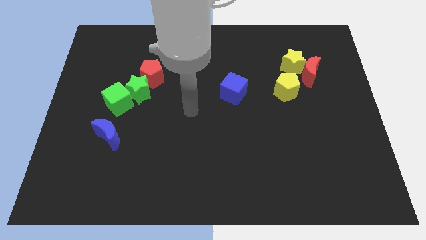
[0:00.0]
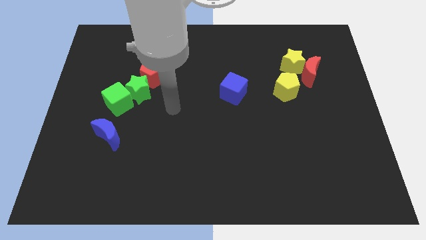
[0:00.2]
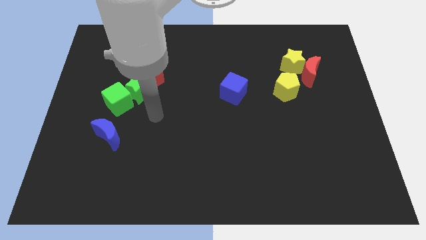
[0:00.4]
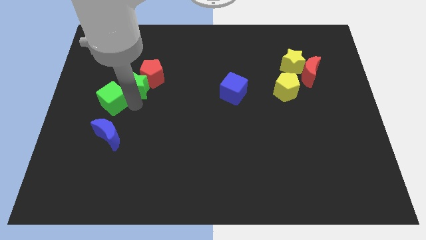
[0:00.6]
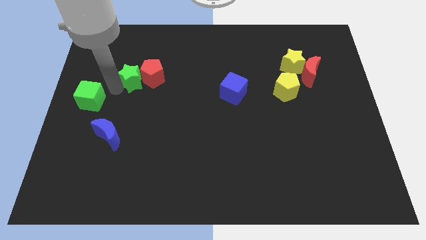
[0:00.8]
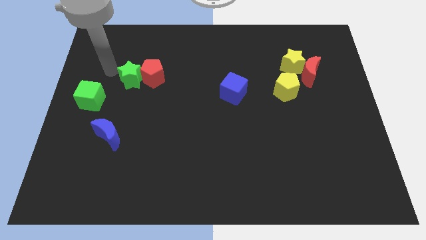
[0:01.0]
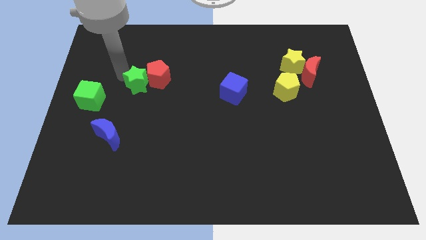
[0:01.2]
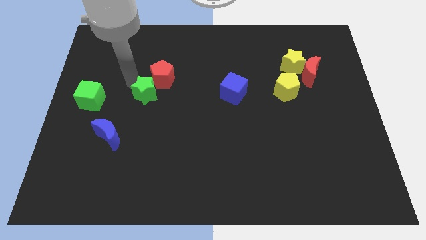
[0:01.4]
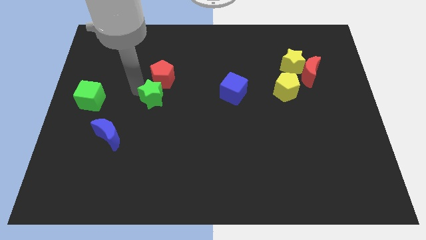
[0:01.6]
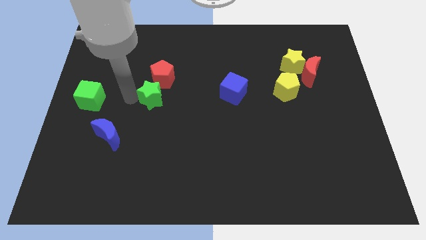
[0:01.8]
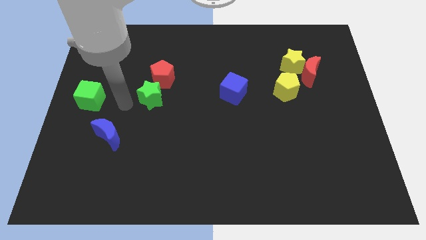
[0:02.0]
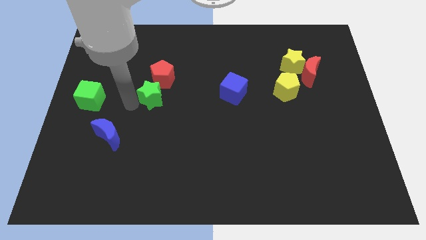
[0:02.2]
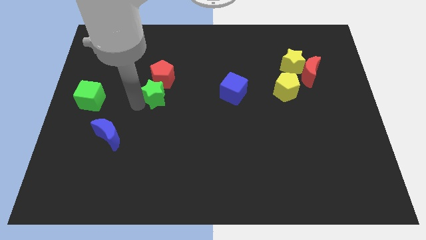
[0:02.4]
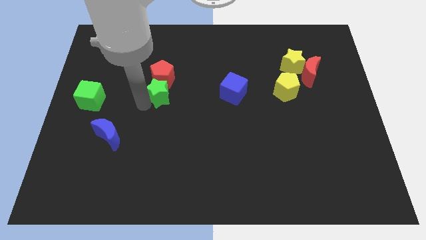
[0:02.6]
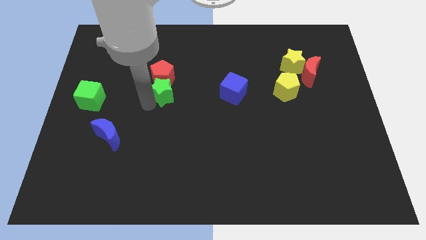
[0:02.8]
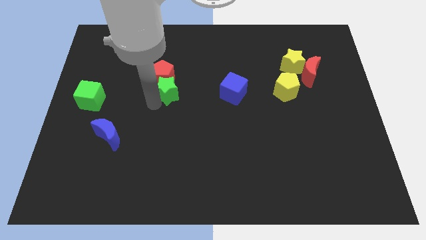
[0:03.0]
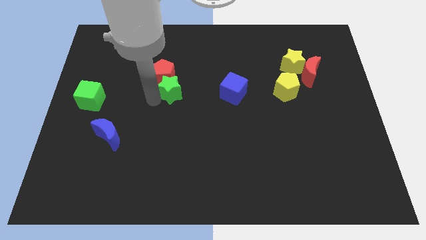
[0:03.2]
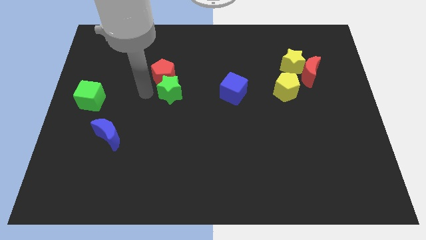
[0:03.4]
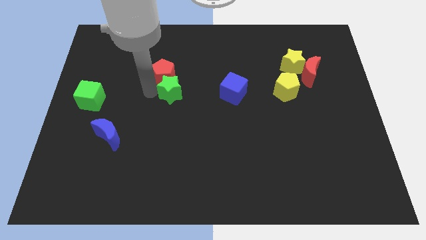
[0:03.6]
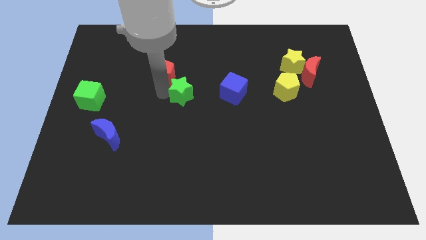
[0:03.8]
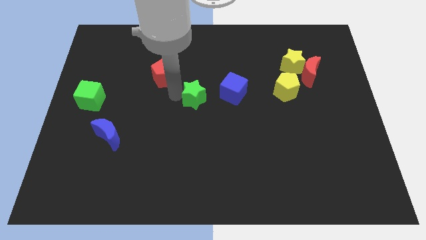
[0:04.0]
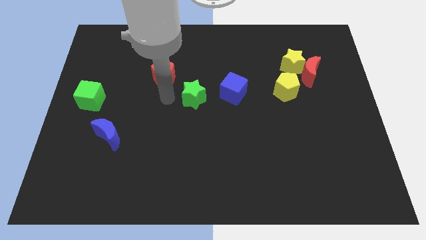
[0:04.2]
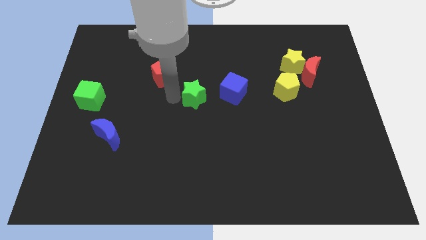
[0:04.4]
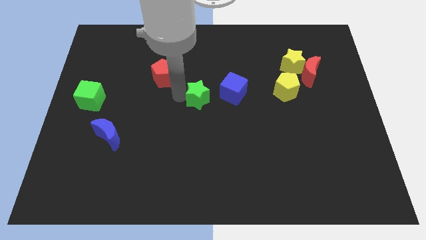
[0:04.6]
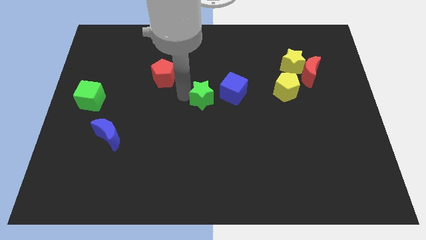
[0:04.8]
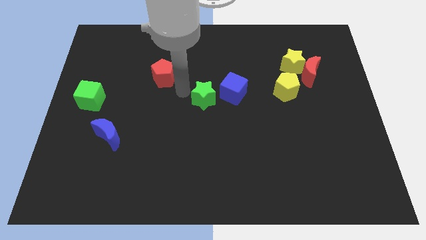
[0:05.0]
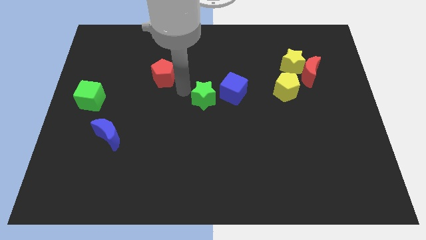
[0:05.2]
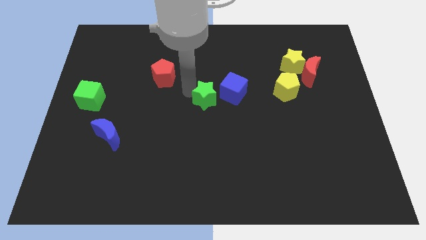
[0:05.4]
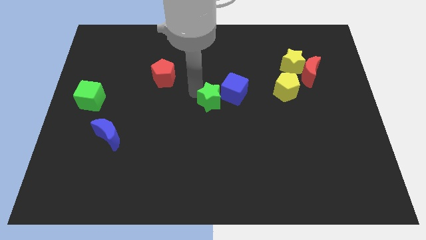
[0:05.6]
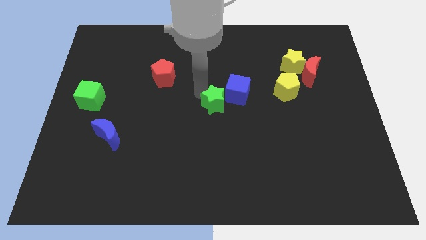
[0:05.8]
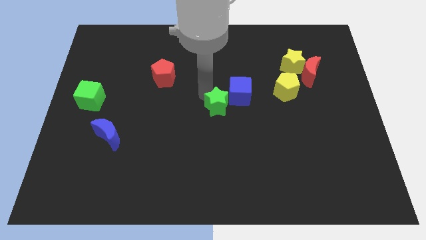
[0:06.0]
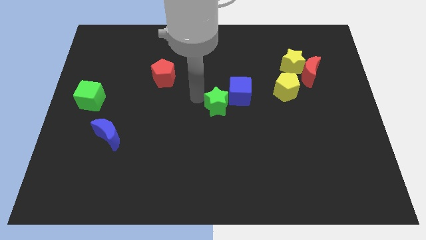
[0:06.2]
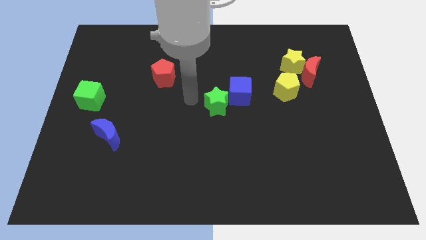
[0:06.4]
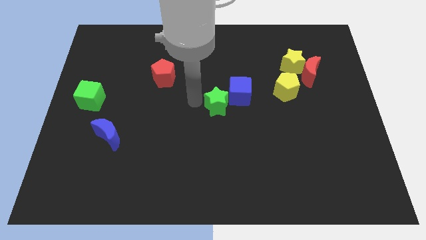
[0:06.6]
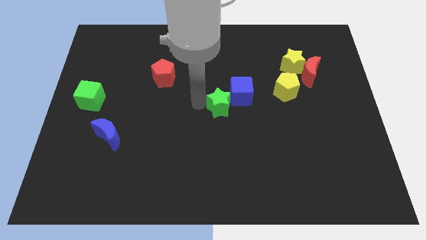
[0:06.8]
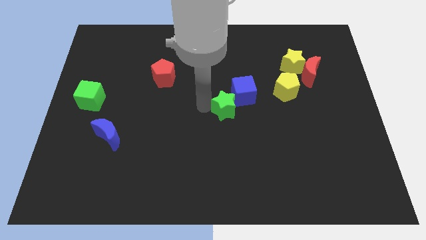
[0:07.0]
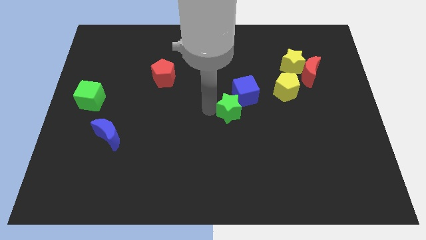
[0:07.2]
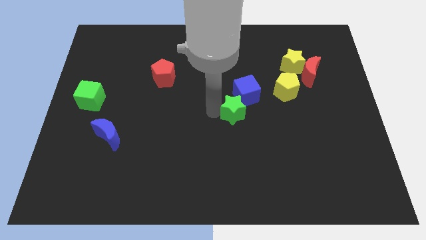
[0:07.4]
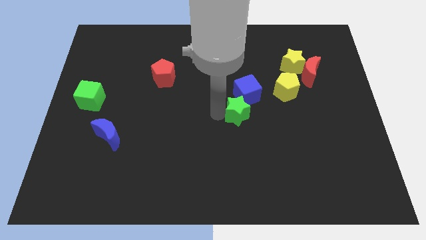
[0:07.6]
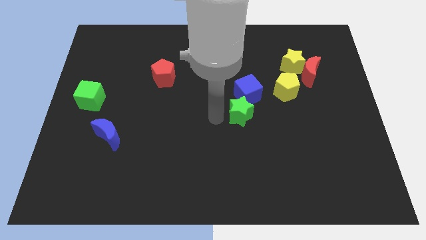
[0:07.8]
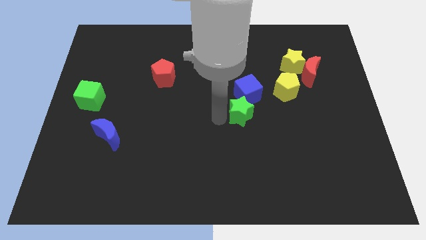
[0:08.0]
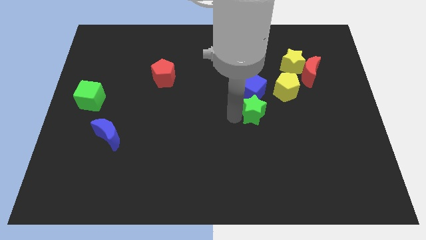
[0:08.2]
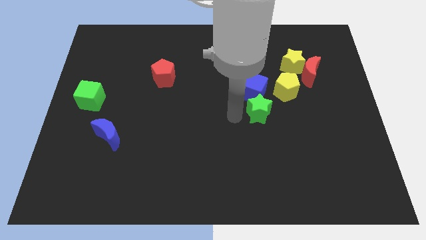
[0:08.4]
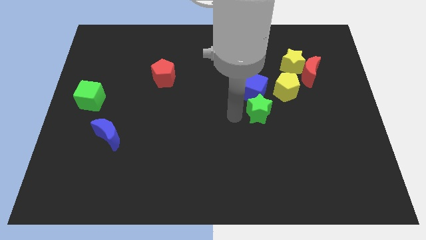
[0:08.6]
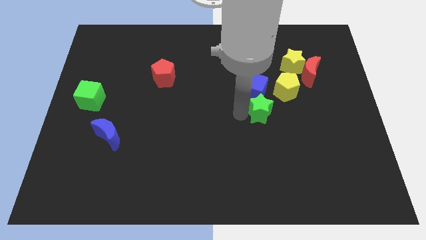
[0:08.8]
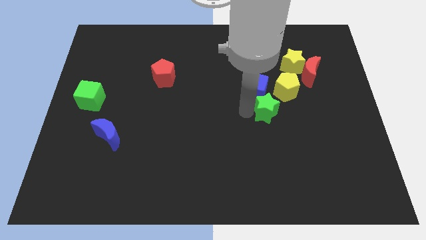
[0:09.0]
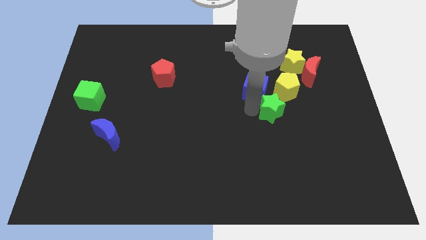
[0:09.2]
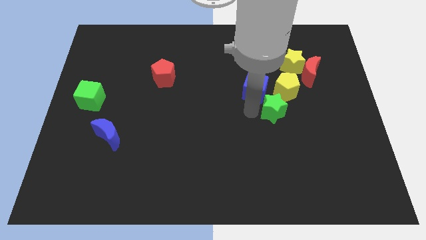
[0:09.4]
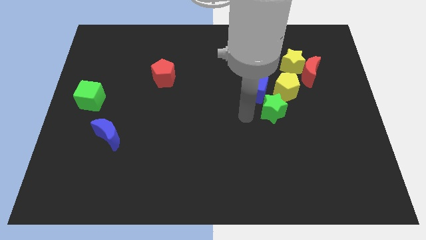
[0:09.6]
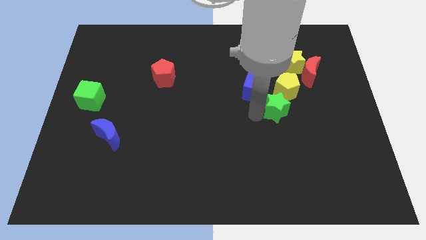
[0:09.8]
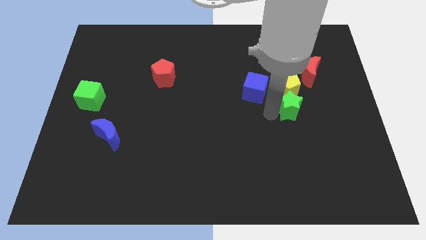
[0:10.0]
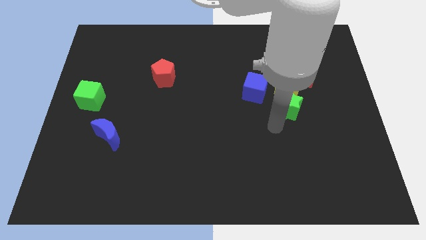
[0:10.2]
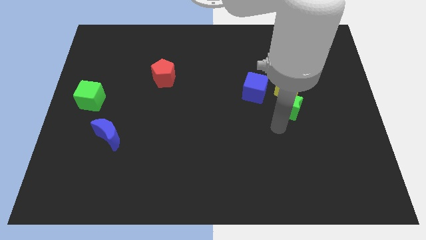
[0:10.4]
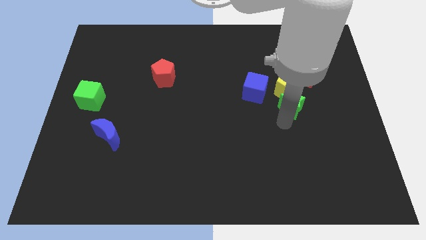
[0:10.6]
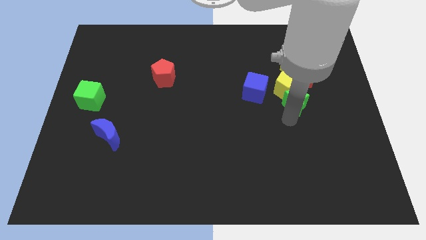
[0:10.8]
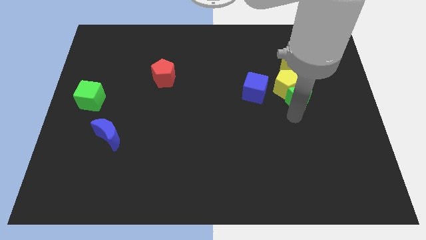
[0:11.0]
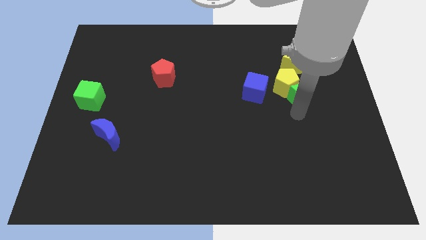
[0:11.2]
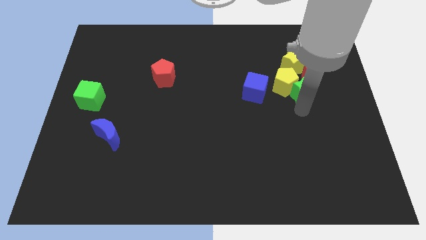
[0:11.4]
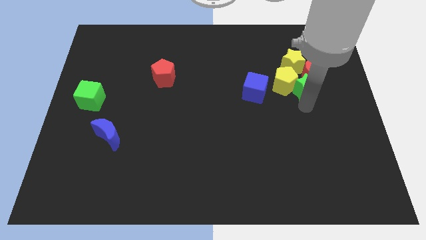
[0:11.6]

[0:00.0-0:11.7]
move the green star to the red moon

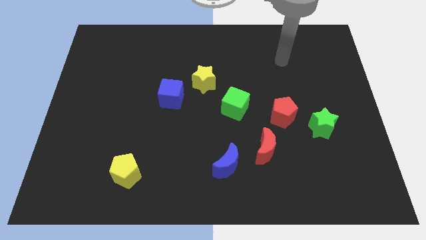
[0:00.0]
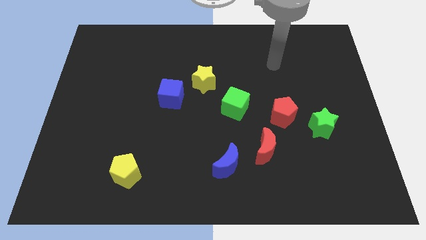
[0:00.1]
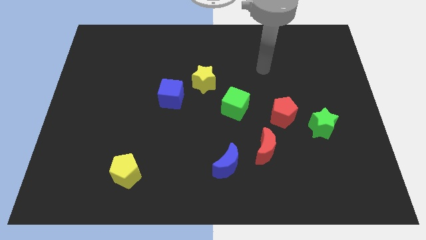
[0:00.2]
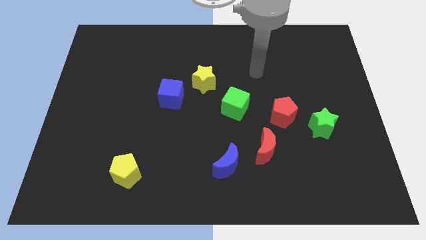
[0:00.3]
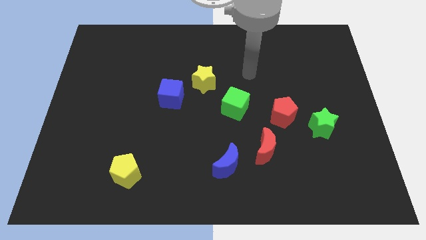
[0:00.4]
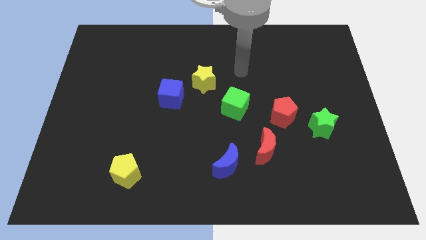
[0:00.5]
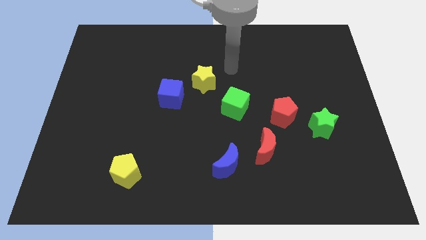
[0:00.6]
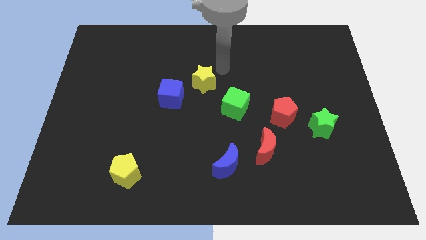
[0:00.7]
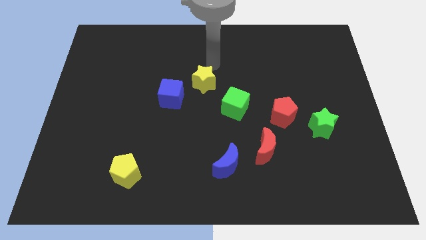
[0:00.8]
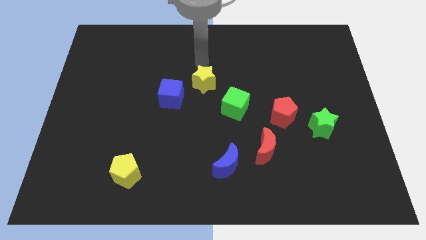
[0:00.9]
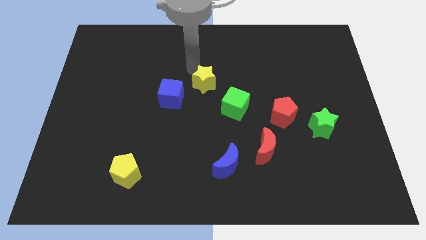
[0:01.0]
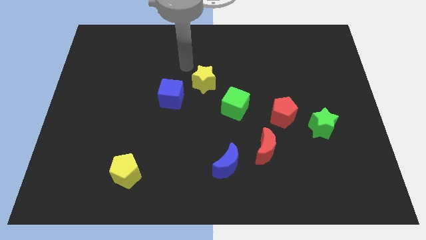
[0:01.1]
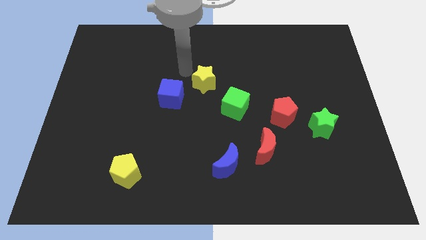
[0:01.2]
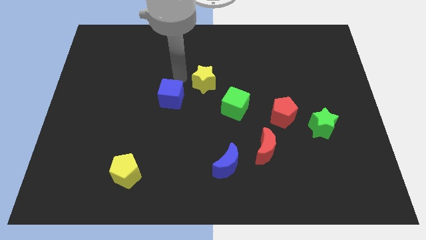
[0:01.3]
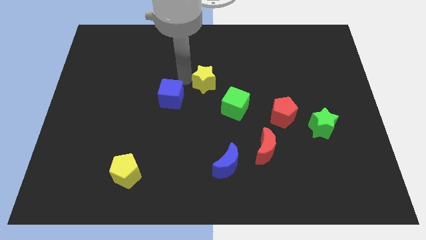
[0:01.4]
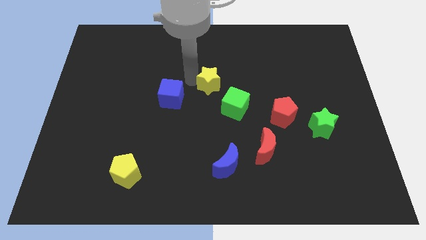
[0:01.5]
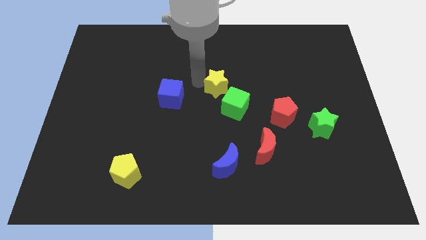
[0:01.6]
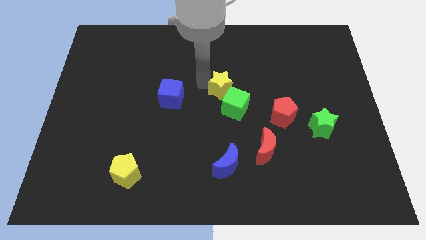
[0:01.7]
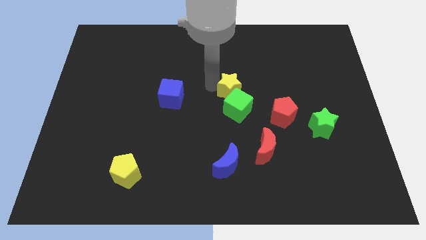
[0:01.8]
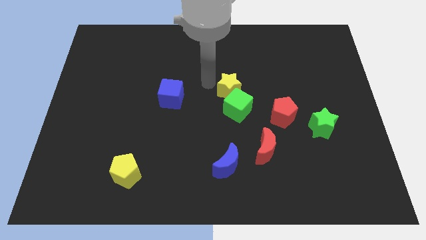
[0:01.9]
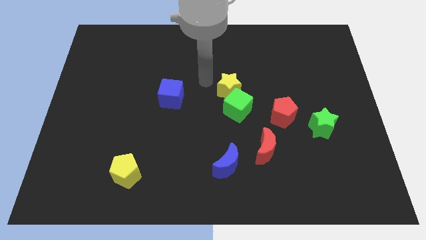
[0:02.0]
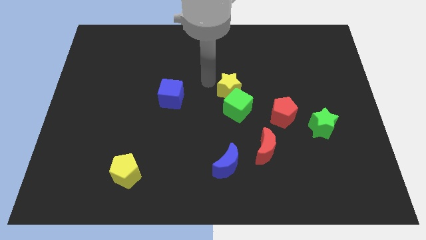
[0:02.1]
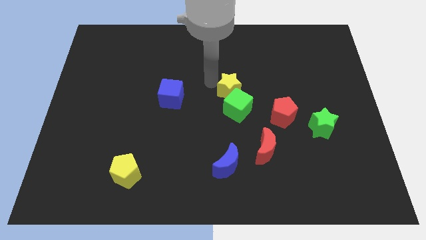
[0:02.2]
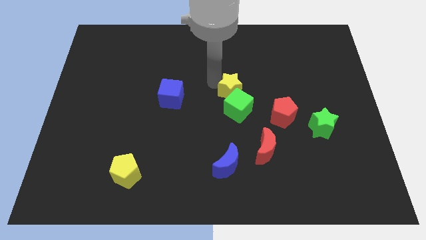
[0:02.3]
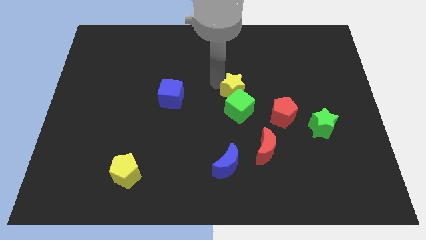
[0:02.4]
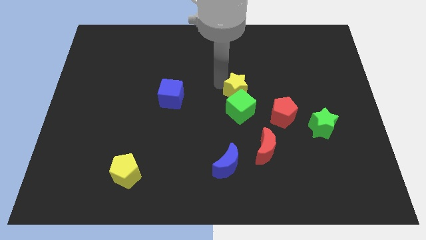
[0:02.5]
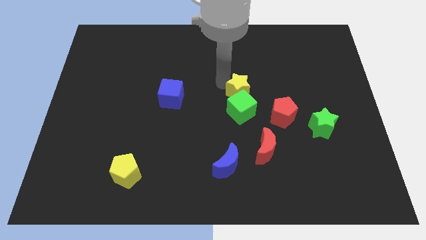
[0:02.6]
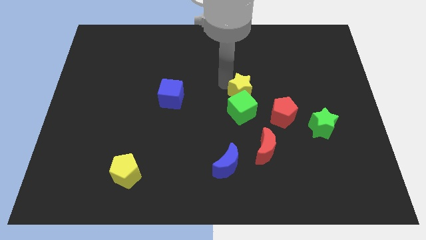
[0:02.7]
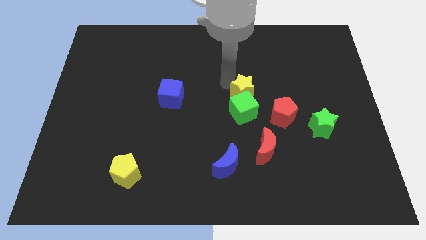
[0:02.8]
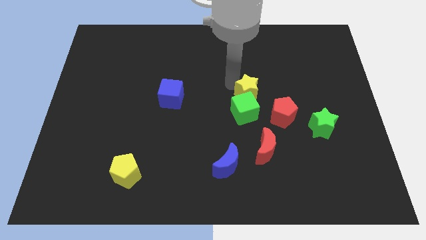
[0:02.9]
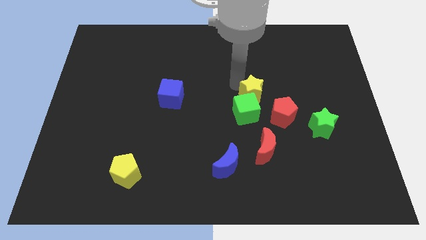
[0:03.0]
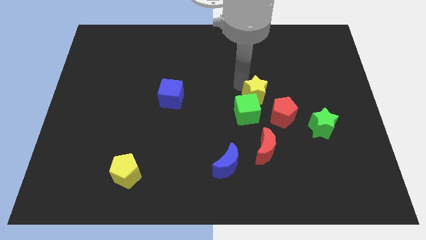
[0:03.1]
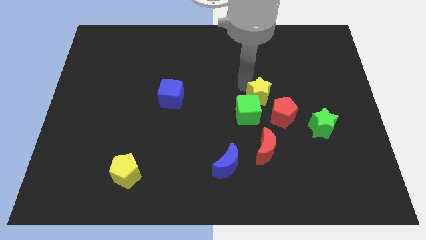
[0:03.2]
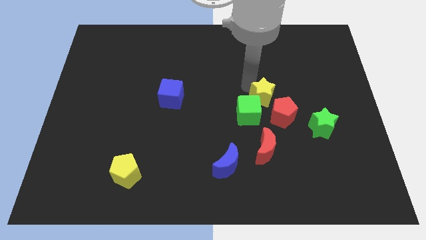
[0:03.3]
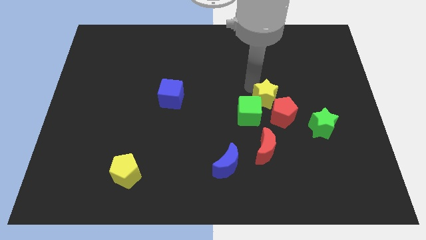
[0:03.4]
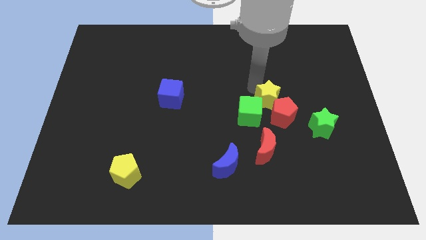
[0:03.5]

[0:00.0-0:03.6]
move the yellow star next to the red pentagon
